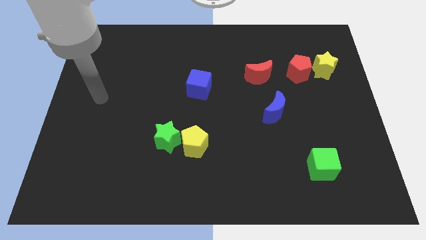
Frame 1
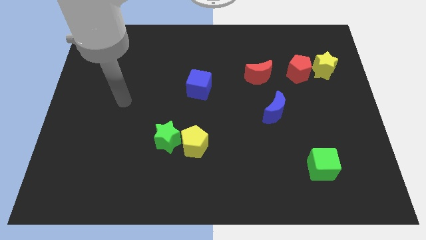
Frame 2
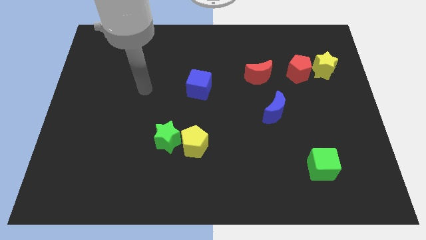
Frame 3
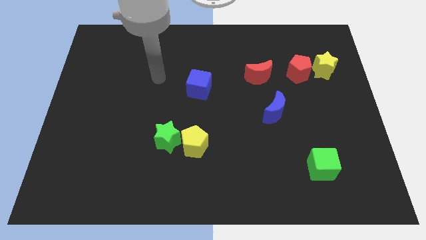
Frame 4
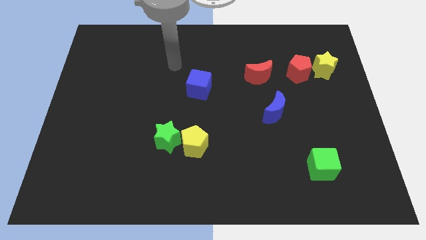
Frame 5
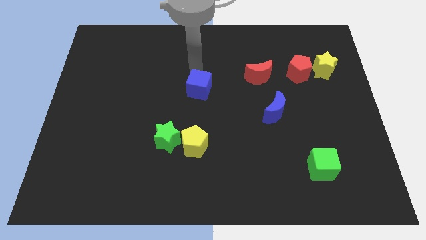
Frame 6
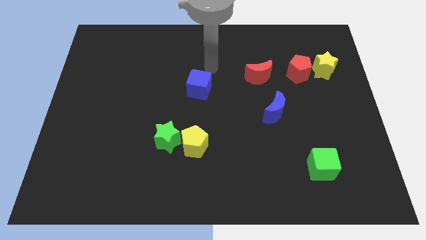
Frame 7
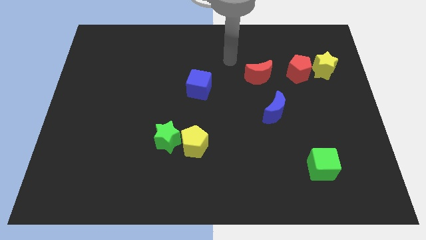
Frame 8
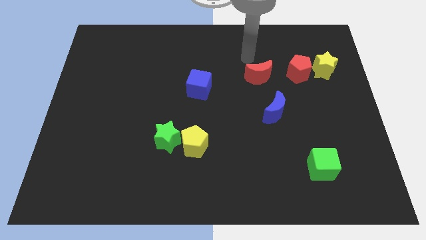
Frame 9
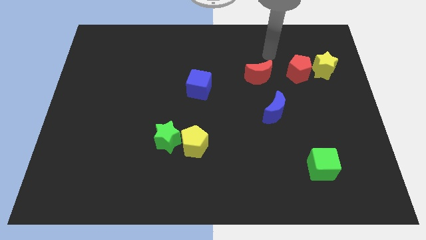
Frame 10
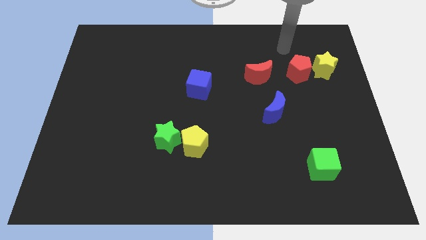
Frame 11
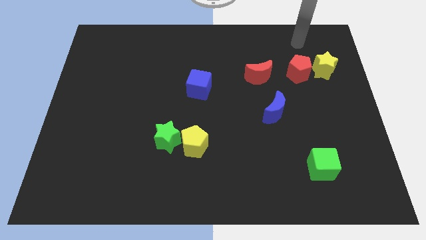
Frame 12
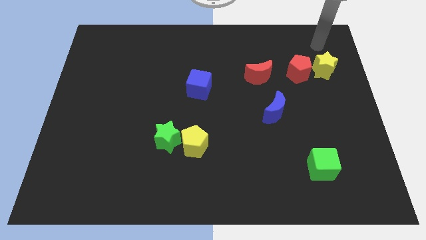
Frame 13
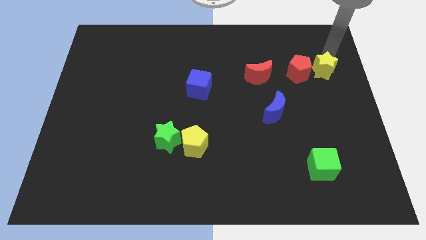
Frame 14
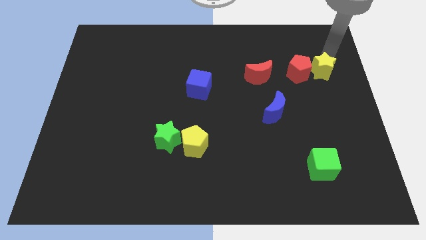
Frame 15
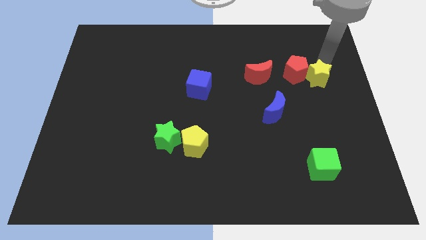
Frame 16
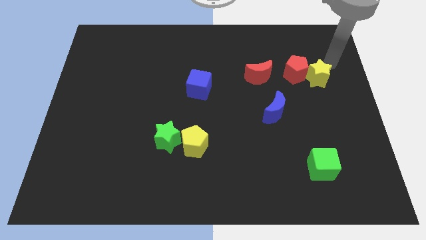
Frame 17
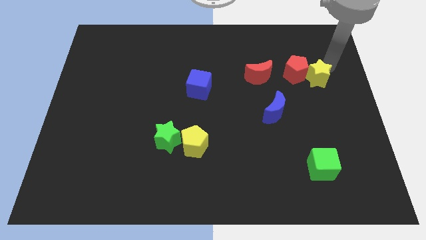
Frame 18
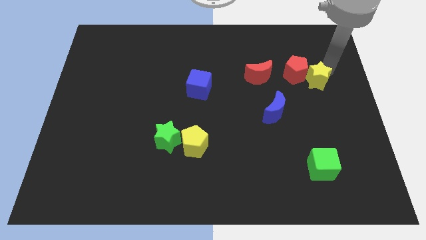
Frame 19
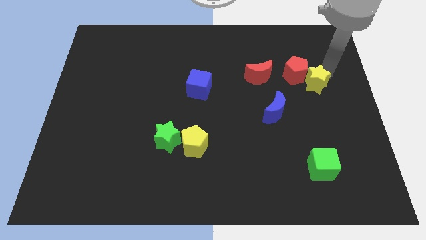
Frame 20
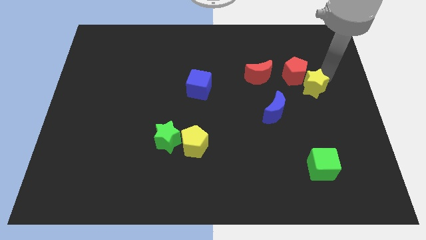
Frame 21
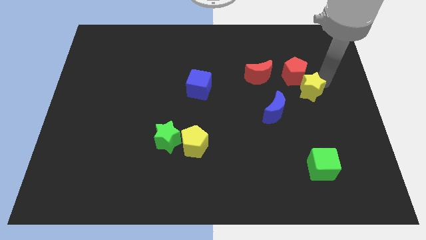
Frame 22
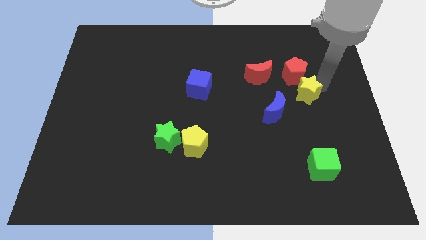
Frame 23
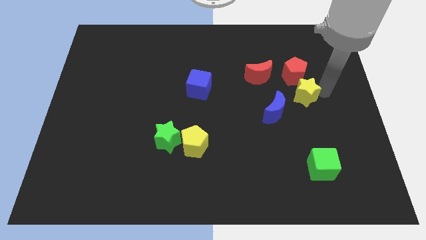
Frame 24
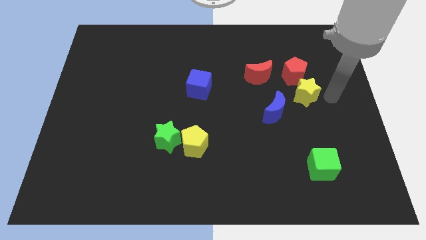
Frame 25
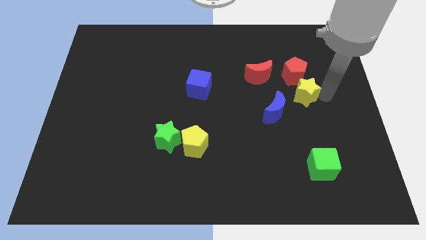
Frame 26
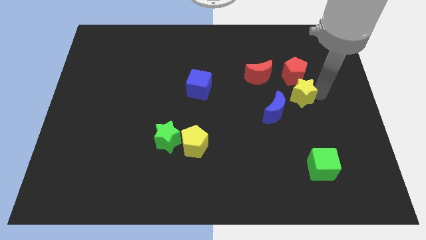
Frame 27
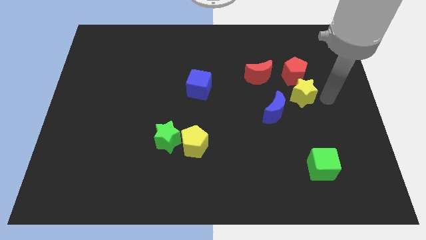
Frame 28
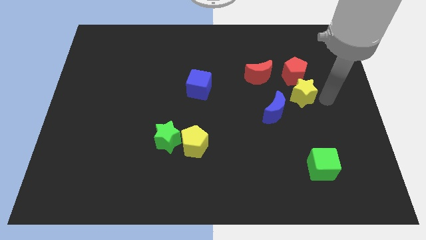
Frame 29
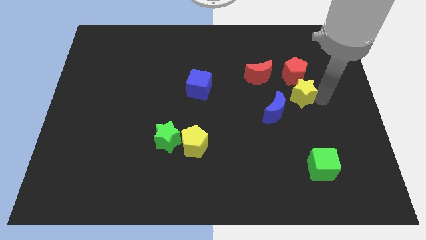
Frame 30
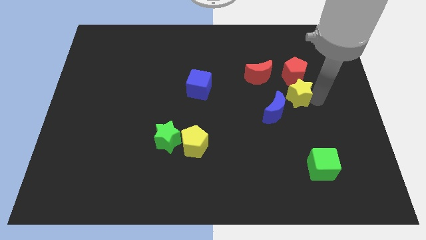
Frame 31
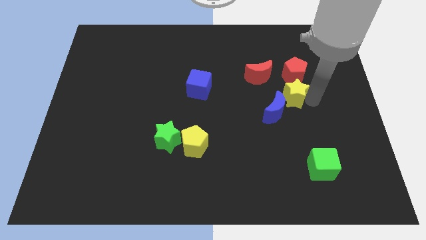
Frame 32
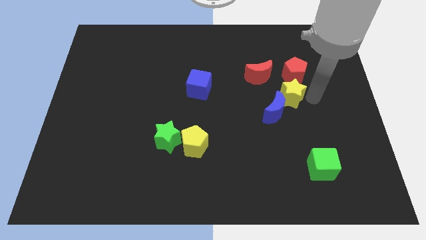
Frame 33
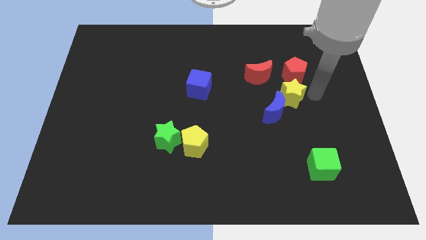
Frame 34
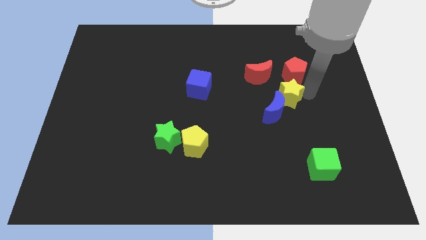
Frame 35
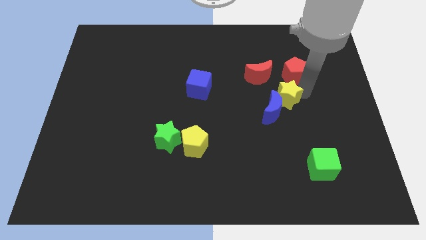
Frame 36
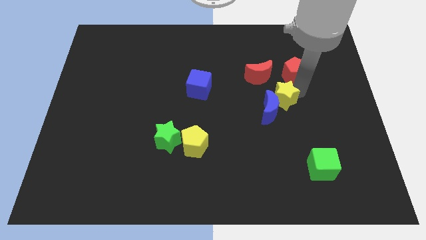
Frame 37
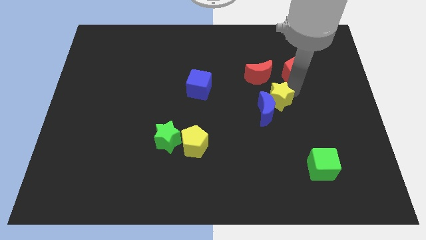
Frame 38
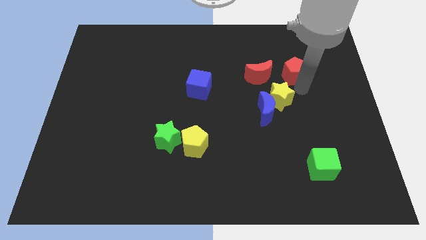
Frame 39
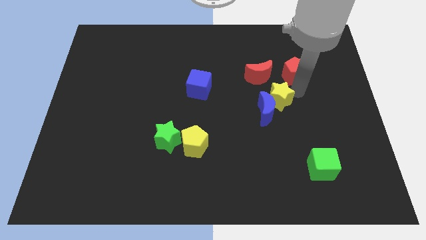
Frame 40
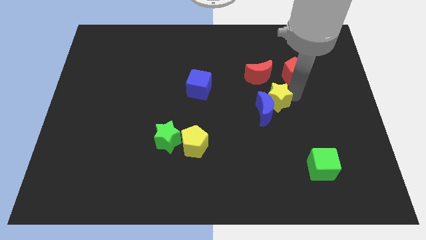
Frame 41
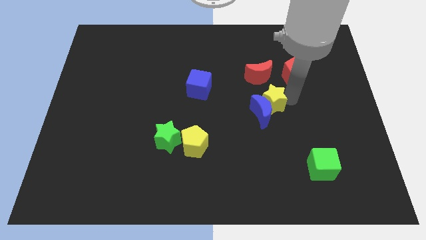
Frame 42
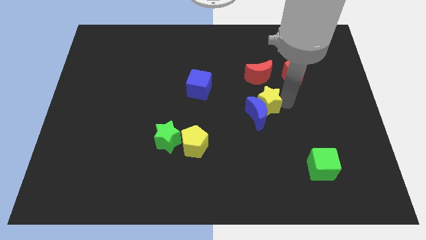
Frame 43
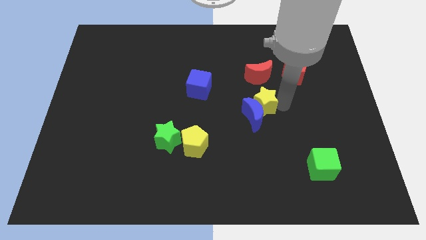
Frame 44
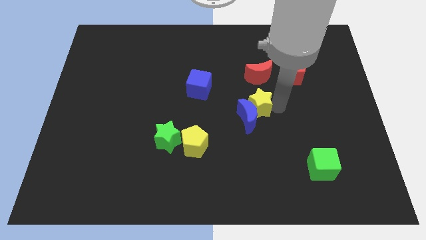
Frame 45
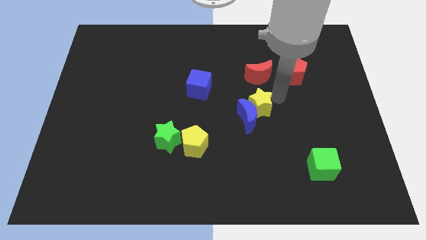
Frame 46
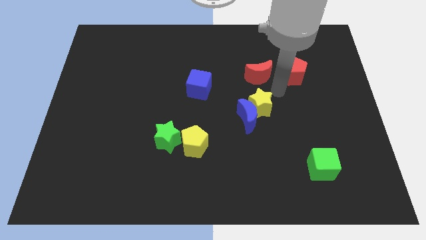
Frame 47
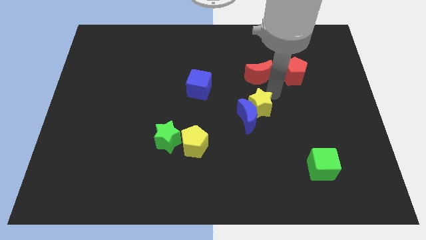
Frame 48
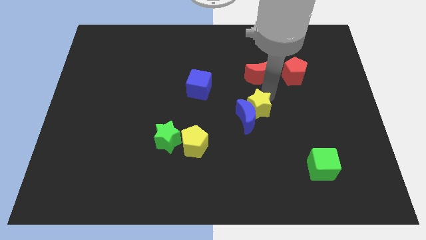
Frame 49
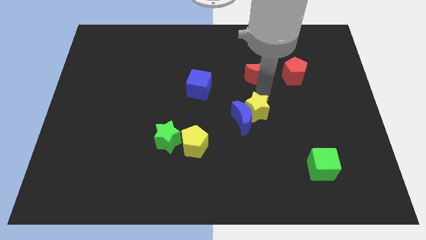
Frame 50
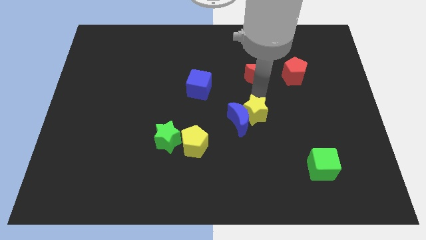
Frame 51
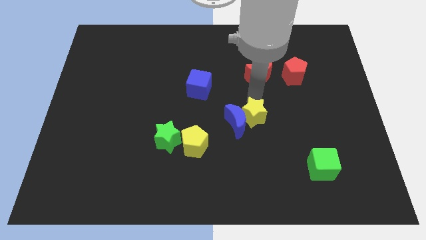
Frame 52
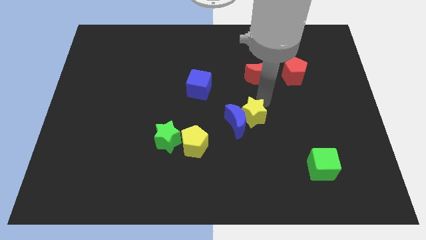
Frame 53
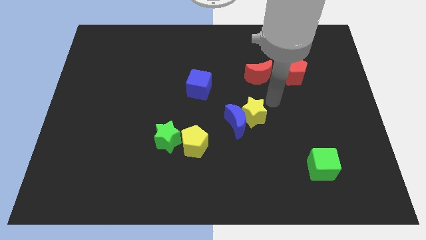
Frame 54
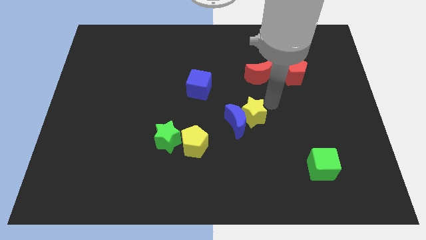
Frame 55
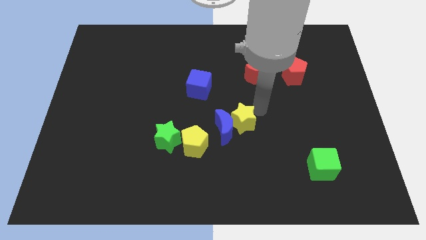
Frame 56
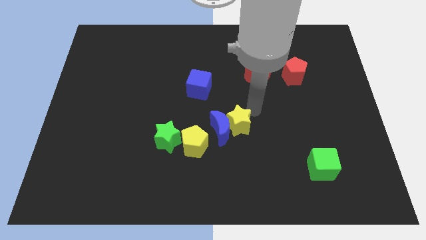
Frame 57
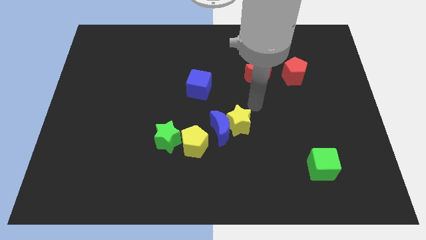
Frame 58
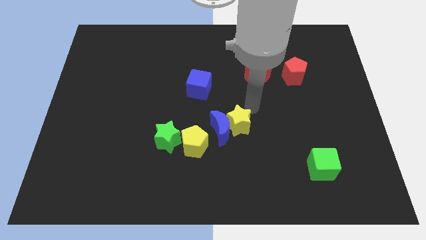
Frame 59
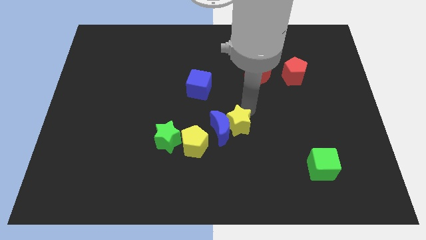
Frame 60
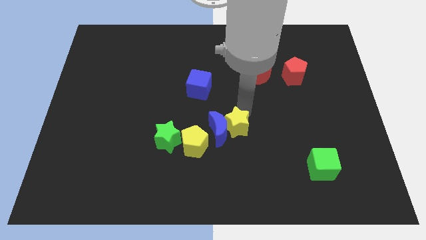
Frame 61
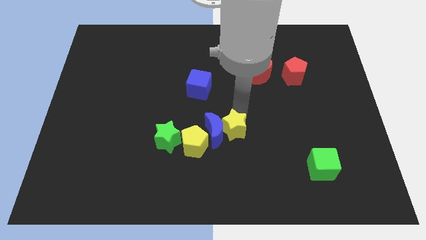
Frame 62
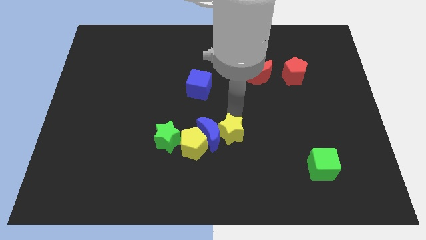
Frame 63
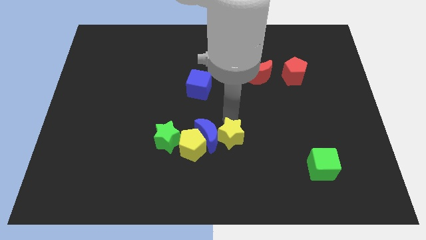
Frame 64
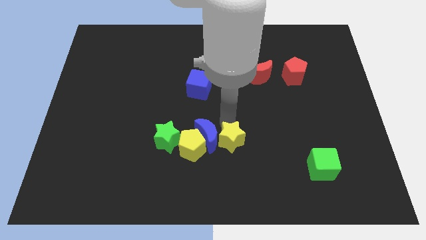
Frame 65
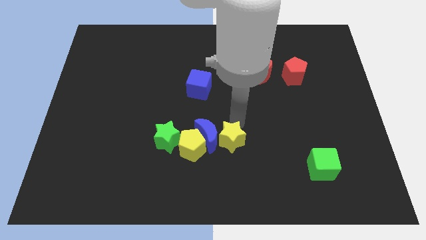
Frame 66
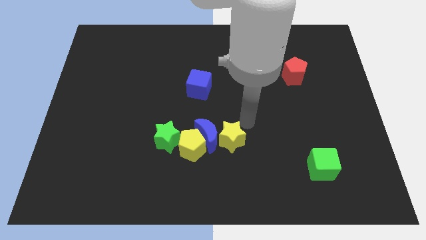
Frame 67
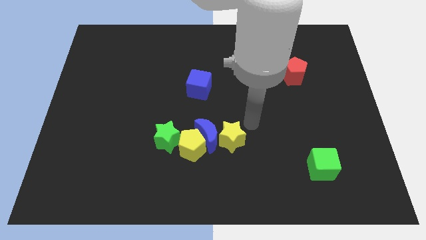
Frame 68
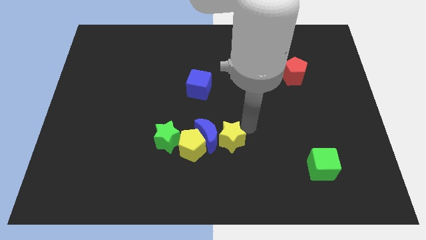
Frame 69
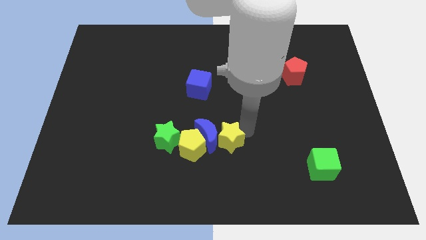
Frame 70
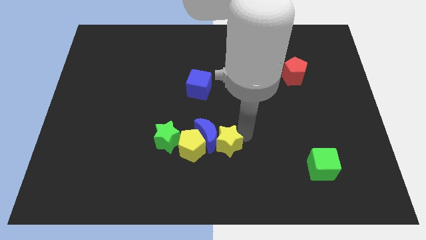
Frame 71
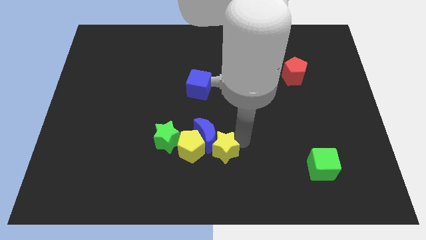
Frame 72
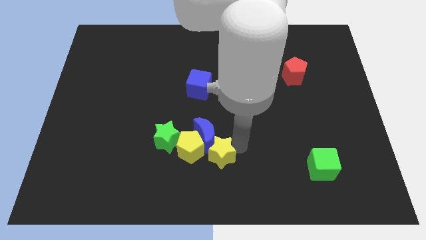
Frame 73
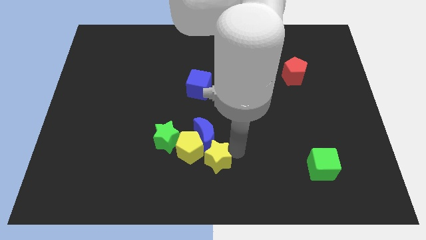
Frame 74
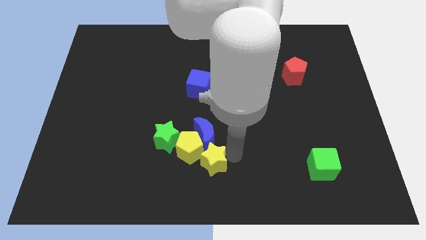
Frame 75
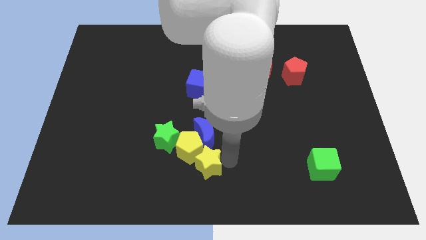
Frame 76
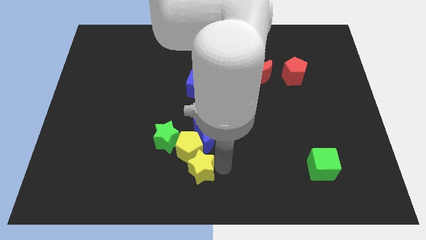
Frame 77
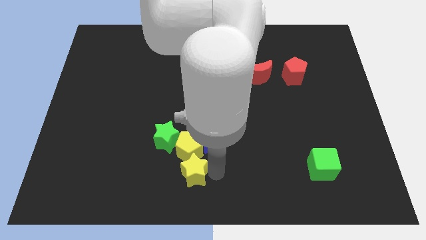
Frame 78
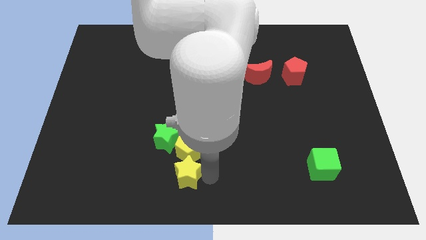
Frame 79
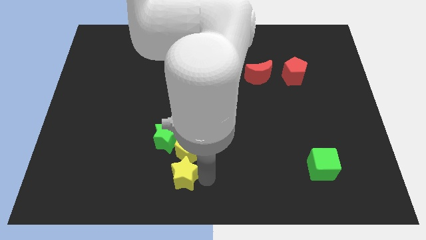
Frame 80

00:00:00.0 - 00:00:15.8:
put the yellow star below the green star

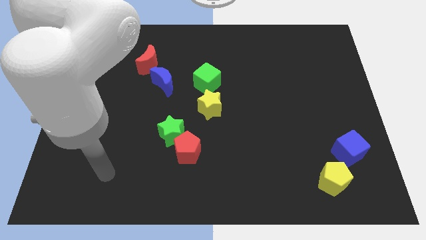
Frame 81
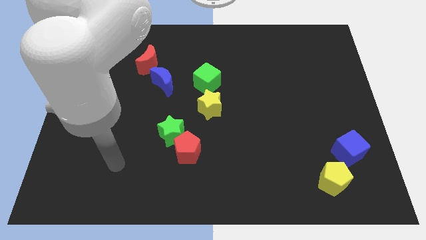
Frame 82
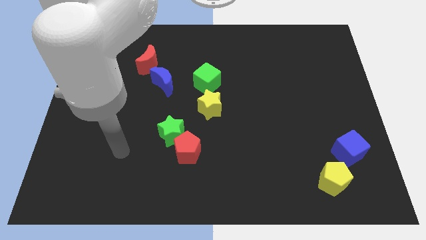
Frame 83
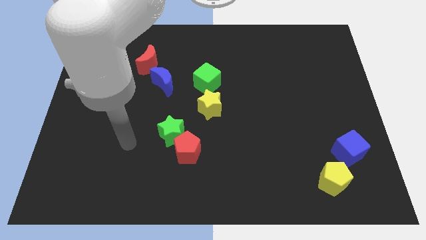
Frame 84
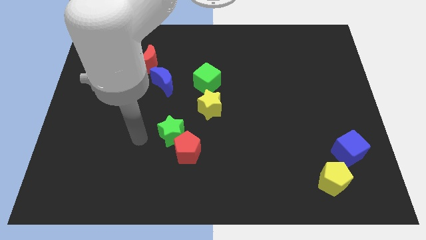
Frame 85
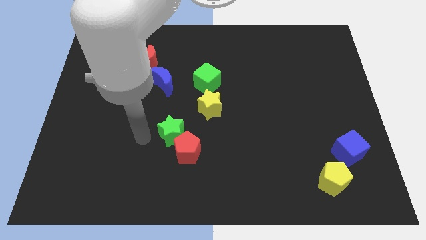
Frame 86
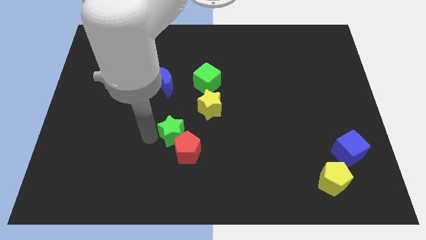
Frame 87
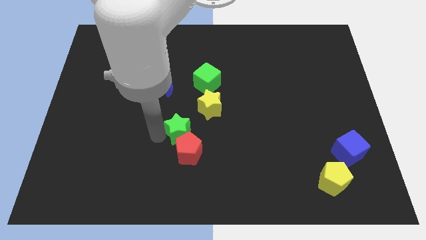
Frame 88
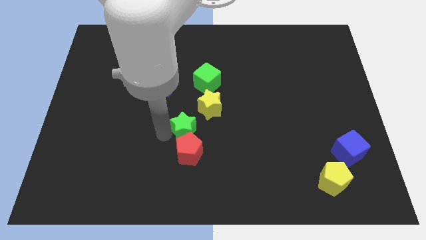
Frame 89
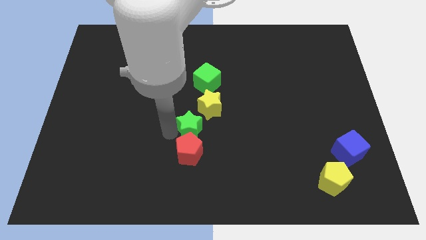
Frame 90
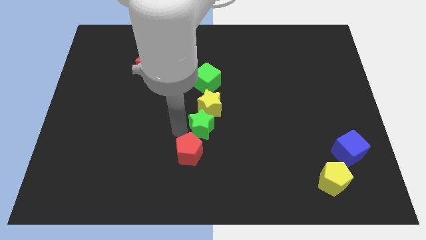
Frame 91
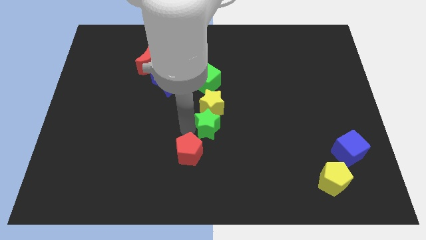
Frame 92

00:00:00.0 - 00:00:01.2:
move the green star diagonally down and to the right of the yellow star
